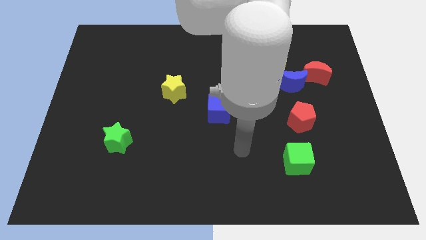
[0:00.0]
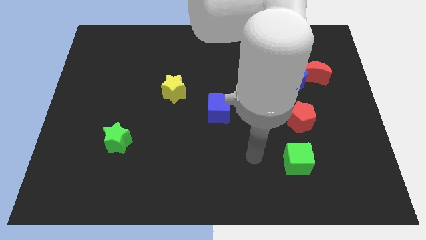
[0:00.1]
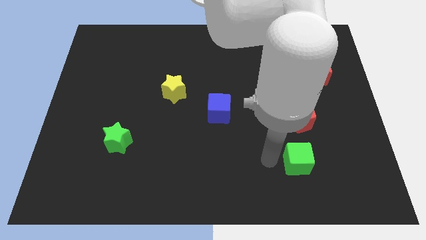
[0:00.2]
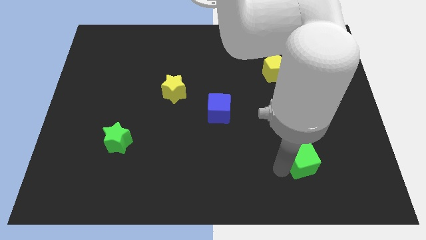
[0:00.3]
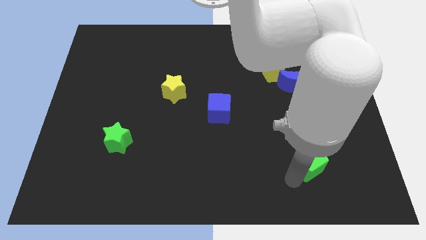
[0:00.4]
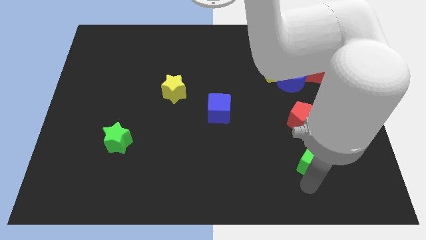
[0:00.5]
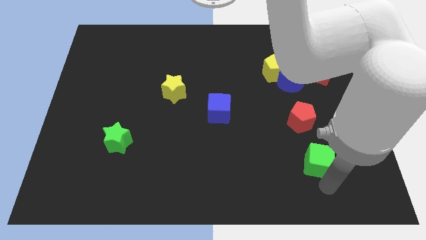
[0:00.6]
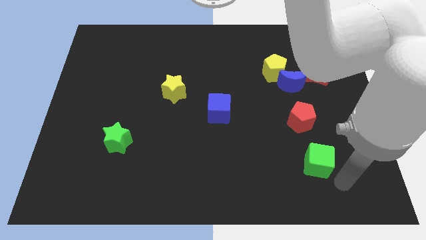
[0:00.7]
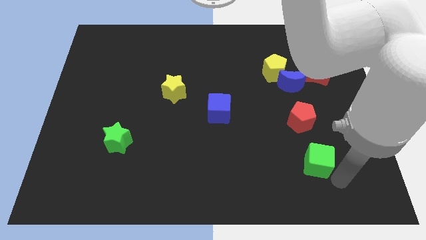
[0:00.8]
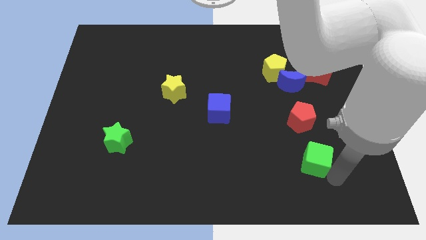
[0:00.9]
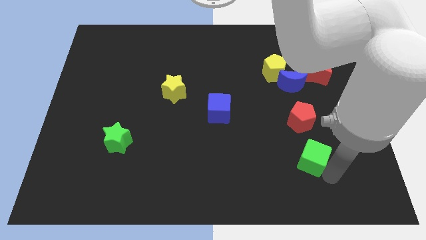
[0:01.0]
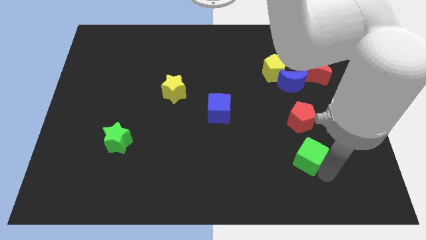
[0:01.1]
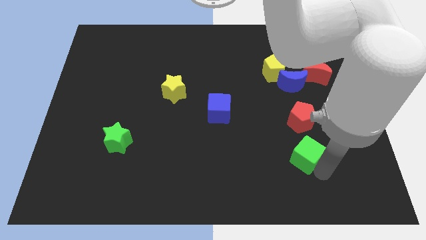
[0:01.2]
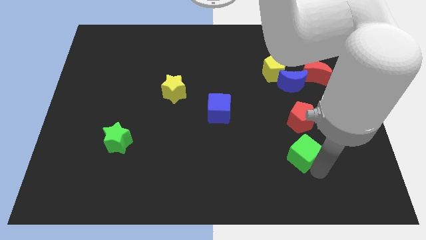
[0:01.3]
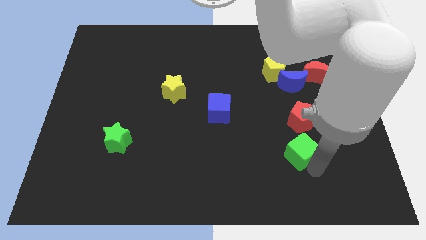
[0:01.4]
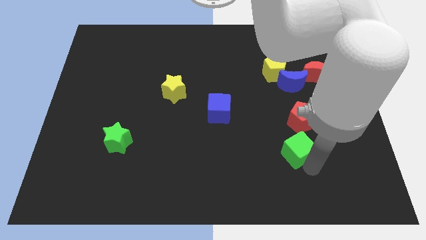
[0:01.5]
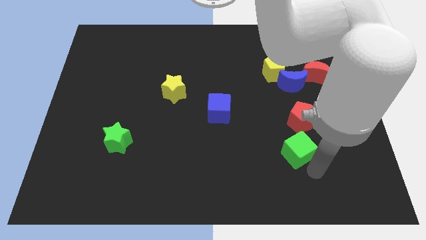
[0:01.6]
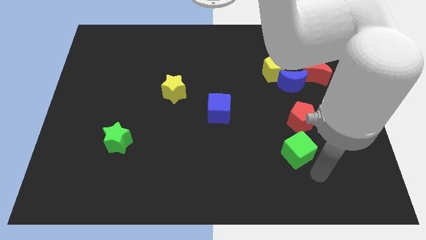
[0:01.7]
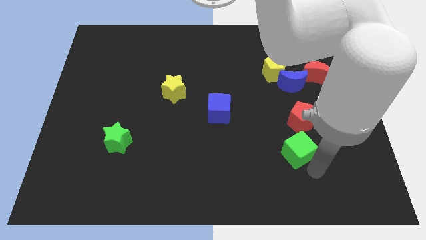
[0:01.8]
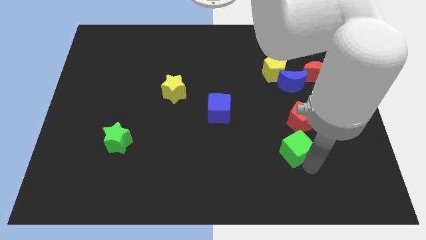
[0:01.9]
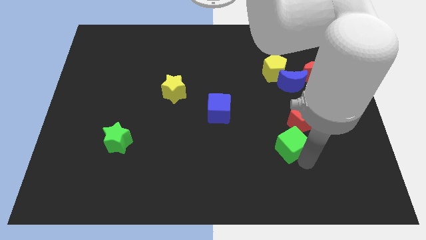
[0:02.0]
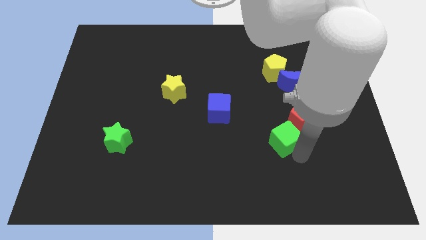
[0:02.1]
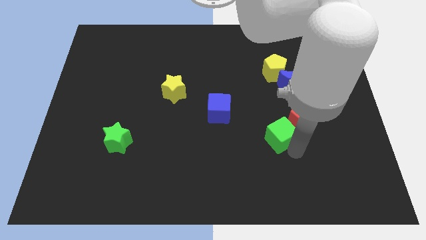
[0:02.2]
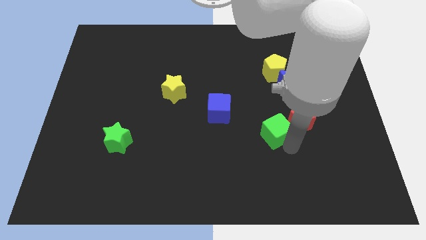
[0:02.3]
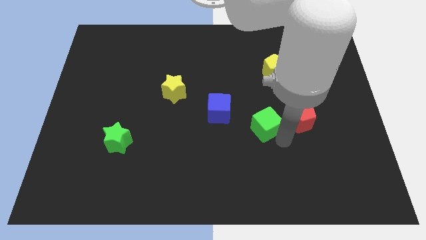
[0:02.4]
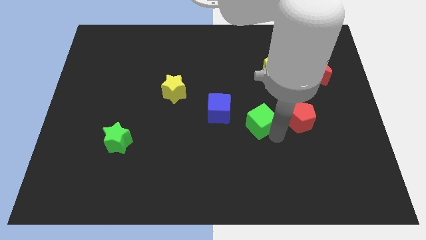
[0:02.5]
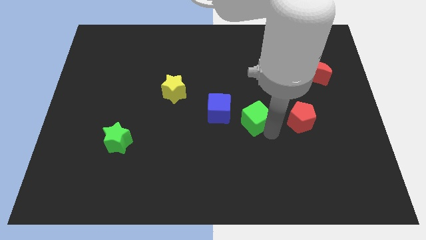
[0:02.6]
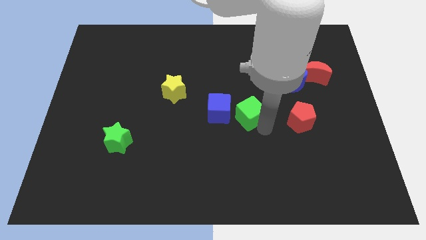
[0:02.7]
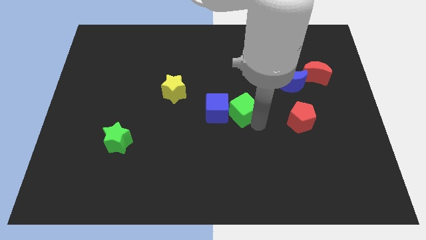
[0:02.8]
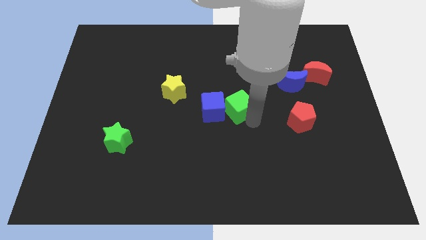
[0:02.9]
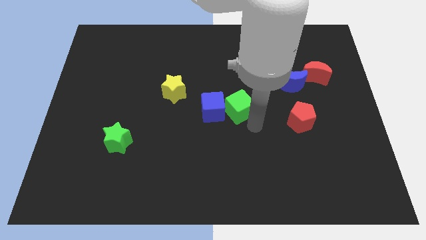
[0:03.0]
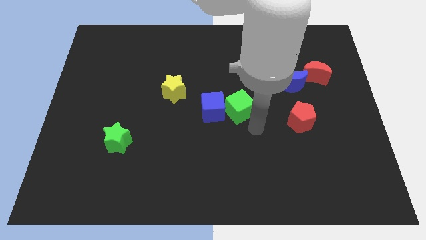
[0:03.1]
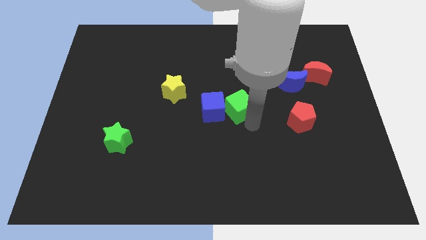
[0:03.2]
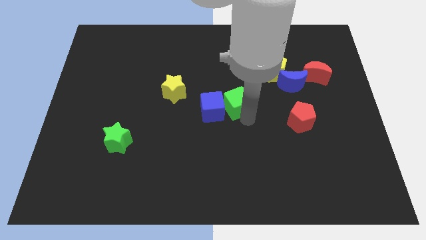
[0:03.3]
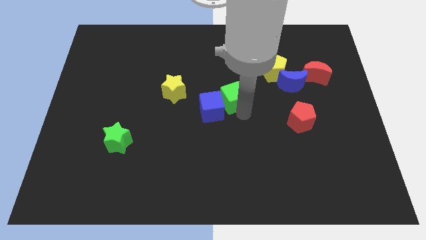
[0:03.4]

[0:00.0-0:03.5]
move the green cube upwards and then to the left

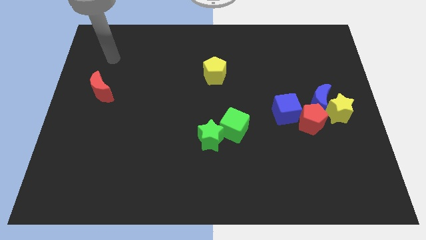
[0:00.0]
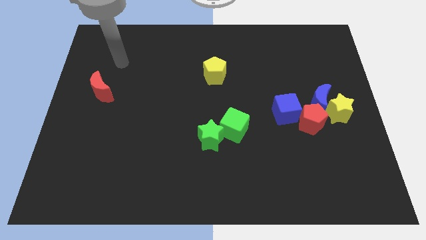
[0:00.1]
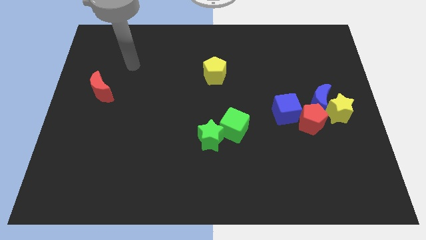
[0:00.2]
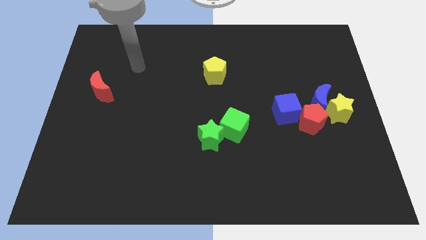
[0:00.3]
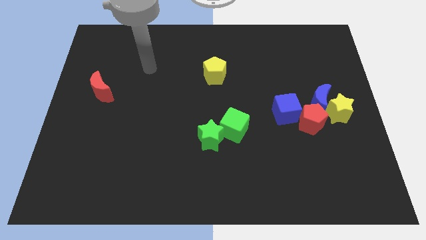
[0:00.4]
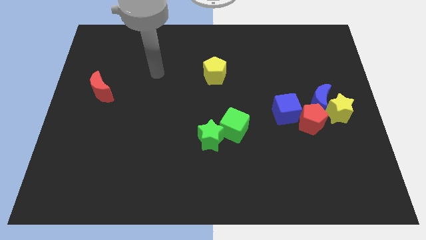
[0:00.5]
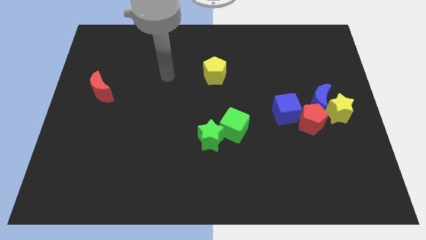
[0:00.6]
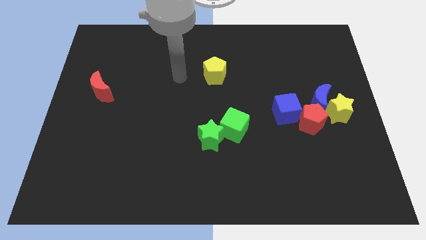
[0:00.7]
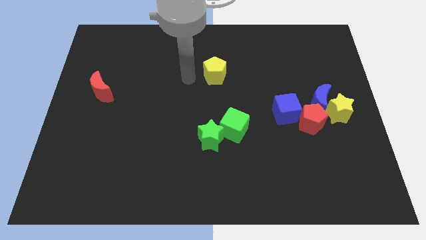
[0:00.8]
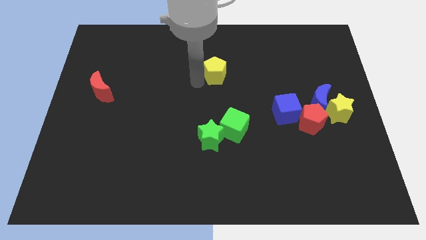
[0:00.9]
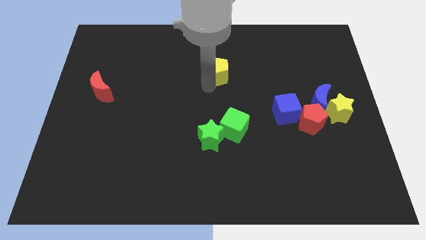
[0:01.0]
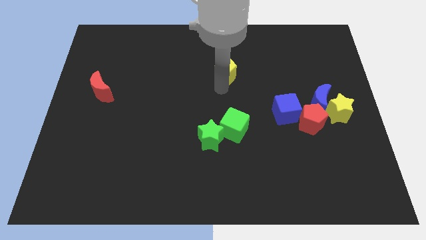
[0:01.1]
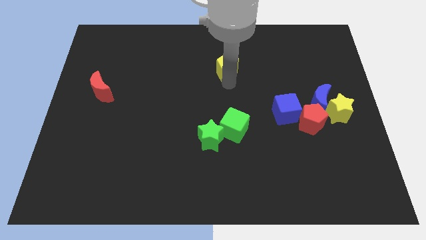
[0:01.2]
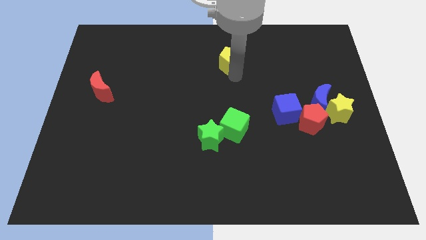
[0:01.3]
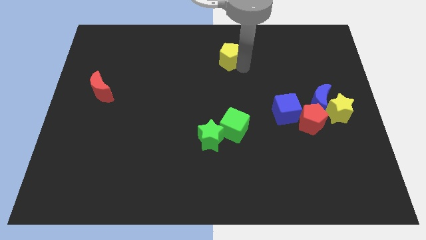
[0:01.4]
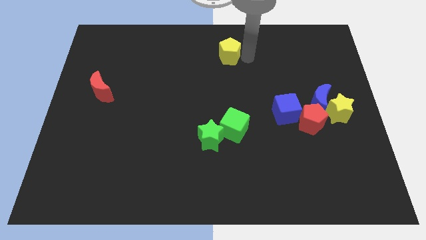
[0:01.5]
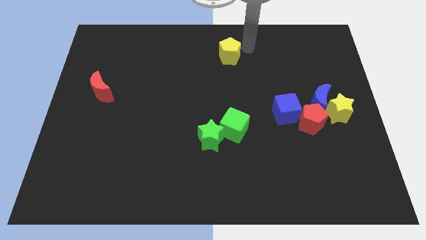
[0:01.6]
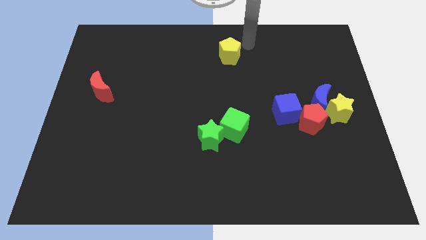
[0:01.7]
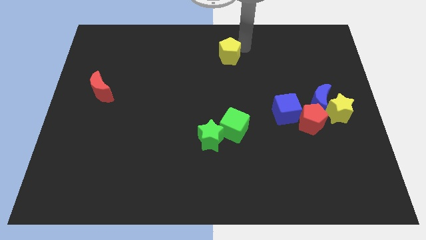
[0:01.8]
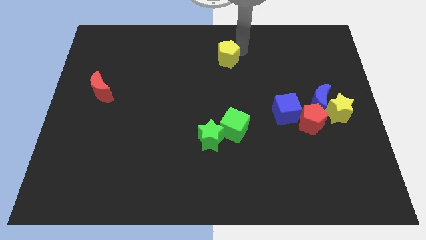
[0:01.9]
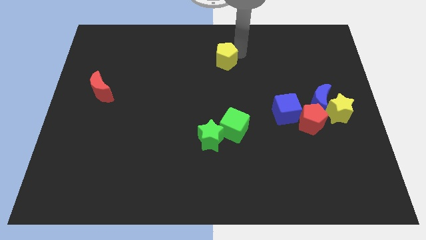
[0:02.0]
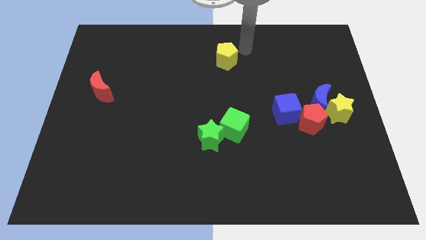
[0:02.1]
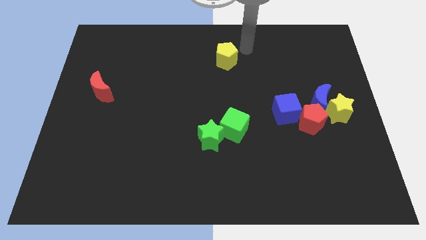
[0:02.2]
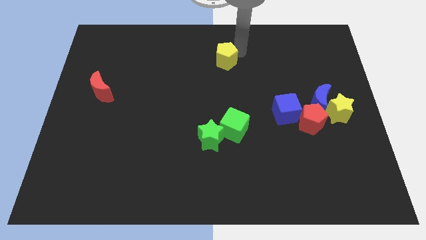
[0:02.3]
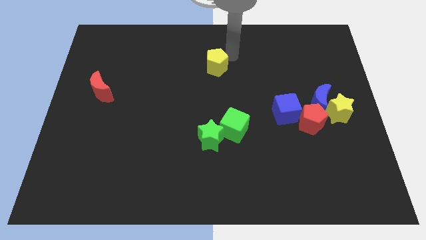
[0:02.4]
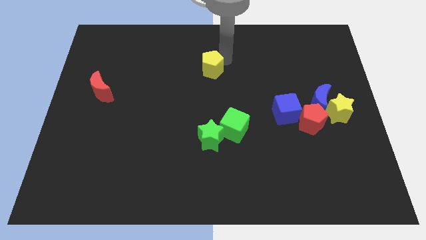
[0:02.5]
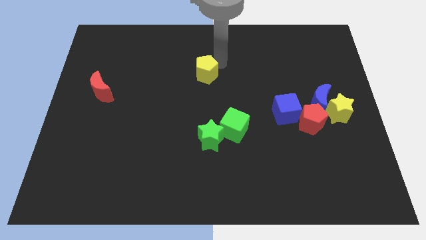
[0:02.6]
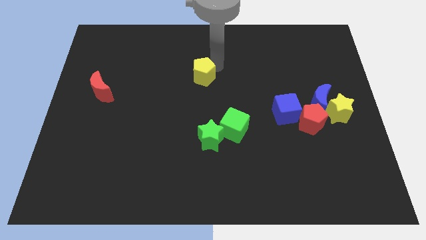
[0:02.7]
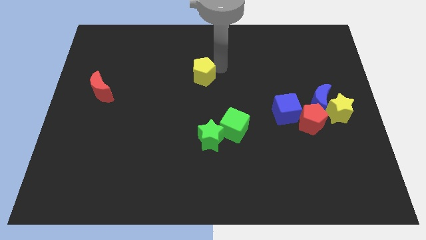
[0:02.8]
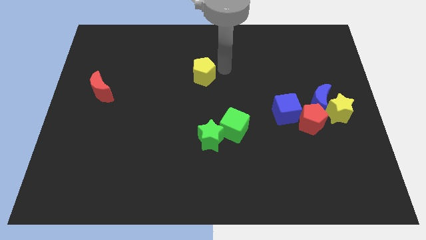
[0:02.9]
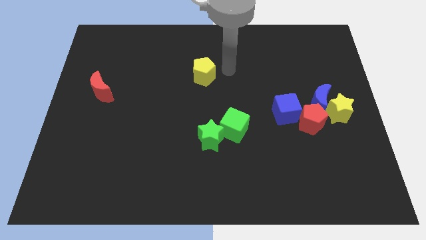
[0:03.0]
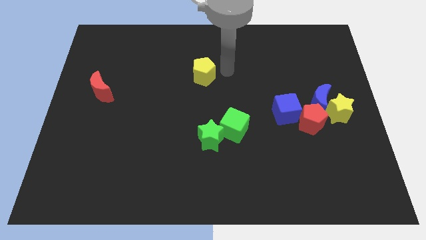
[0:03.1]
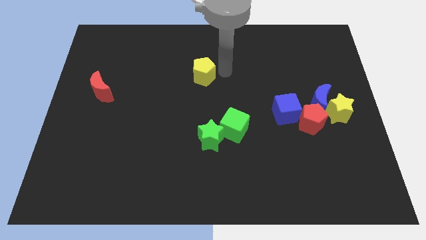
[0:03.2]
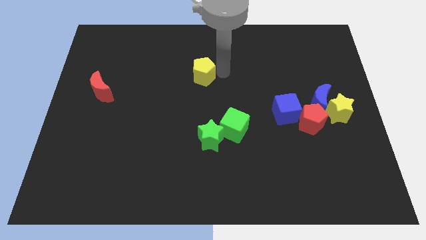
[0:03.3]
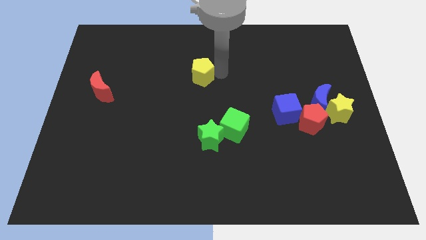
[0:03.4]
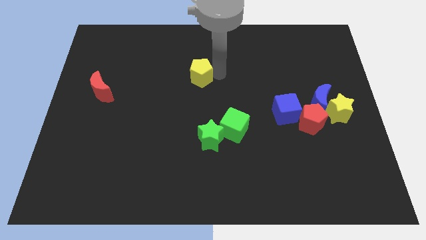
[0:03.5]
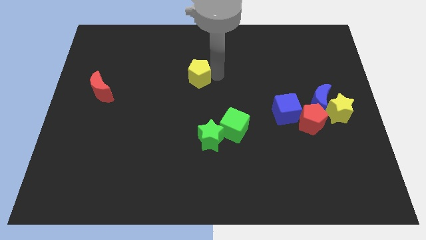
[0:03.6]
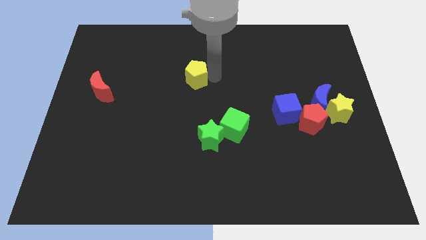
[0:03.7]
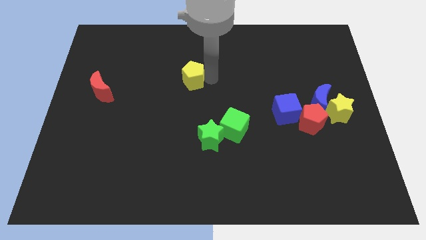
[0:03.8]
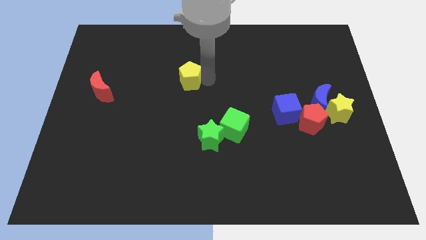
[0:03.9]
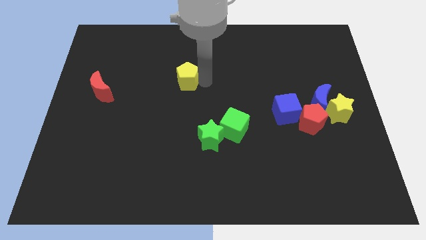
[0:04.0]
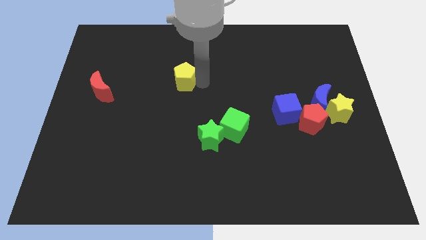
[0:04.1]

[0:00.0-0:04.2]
move the yellow pentagon to the left a little
